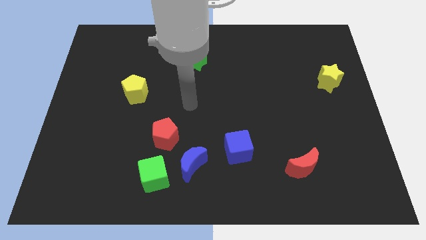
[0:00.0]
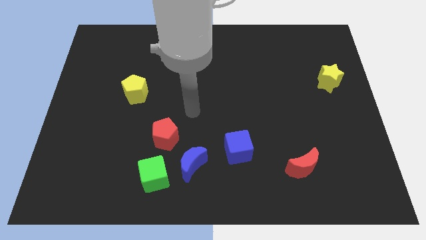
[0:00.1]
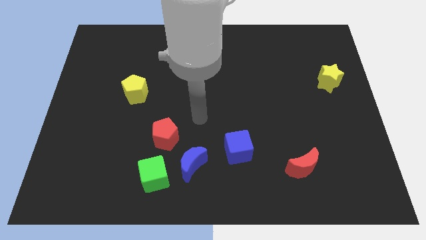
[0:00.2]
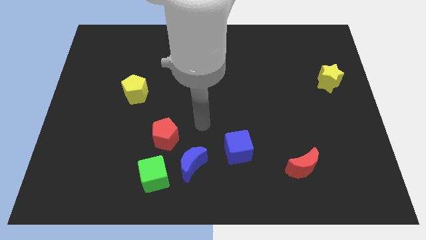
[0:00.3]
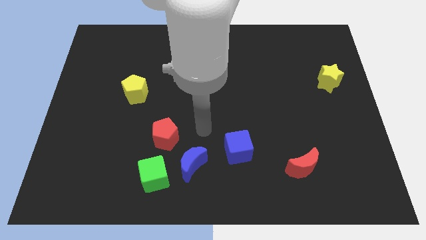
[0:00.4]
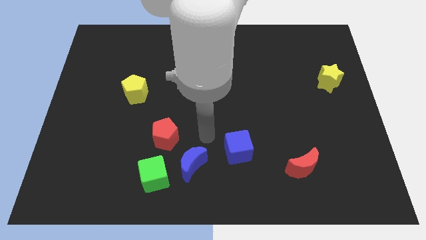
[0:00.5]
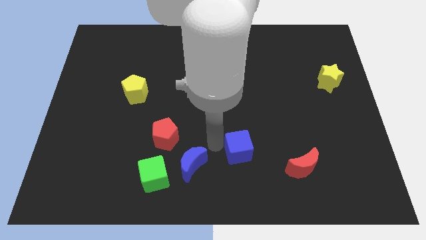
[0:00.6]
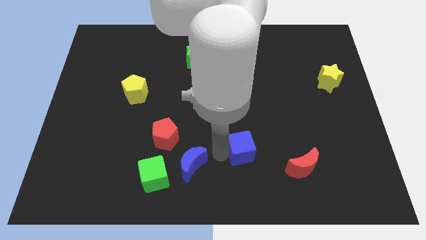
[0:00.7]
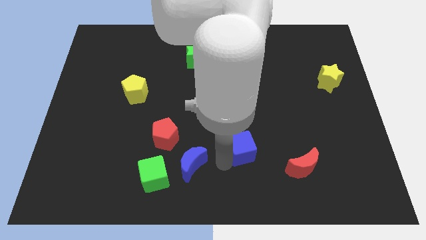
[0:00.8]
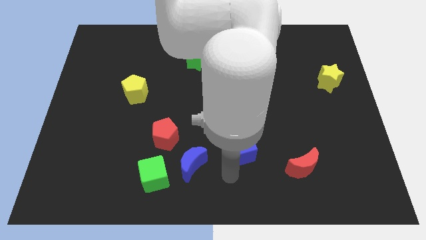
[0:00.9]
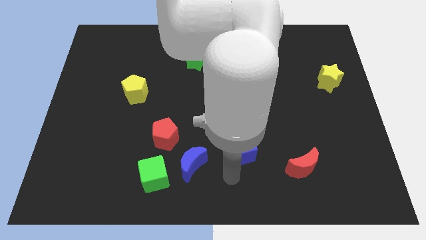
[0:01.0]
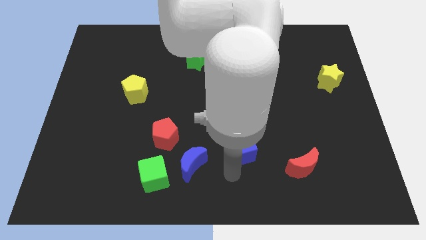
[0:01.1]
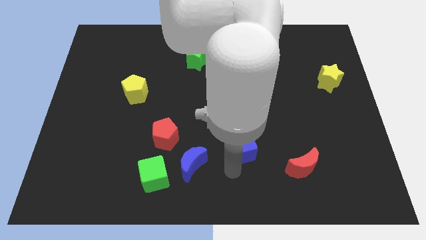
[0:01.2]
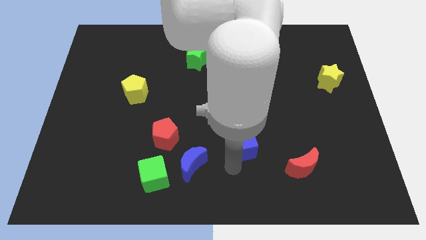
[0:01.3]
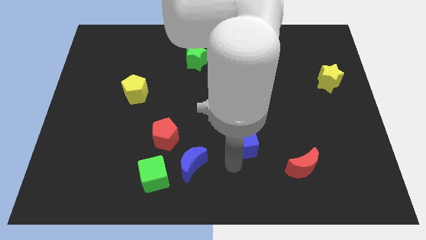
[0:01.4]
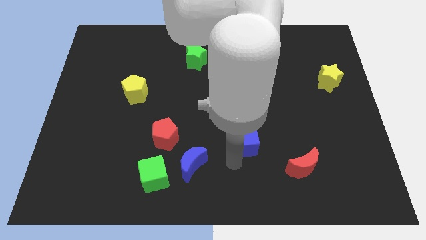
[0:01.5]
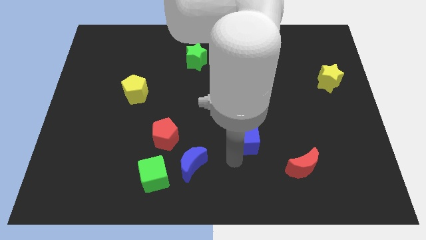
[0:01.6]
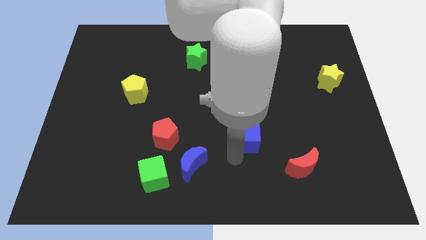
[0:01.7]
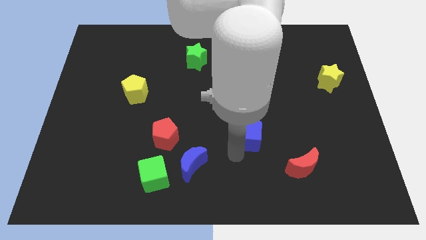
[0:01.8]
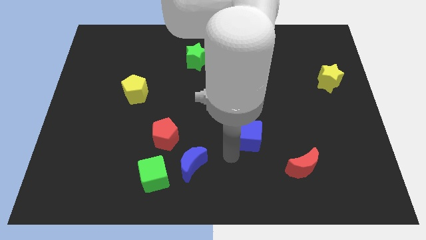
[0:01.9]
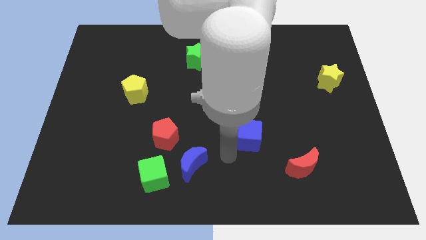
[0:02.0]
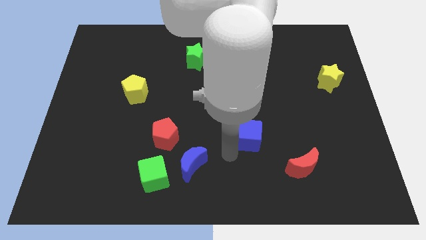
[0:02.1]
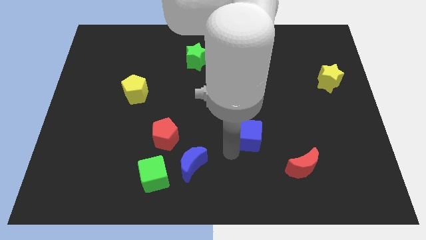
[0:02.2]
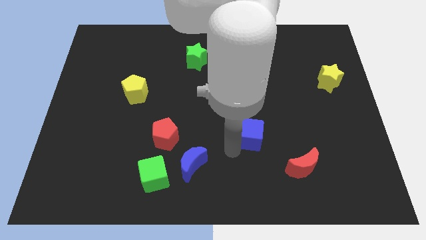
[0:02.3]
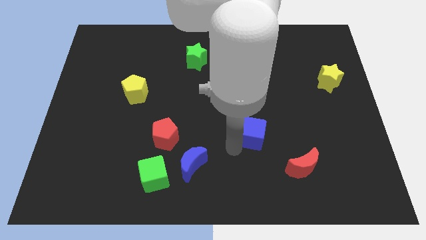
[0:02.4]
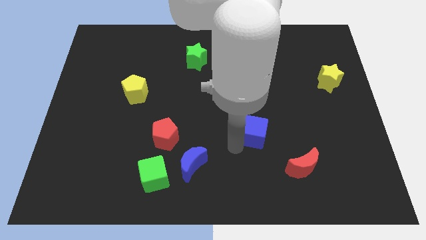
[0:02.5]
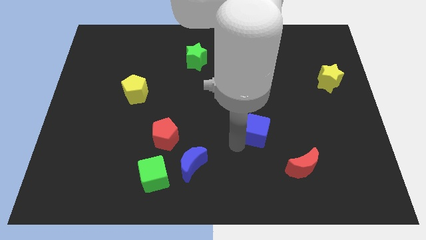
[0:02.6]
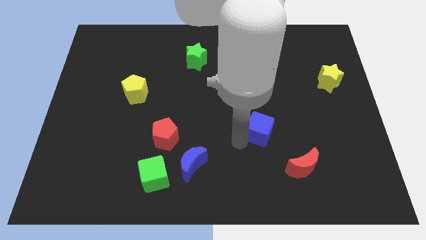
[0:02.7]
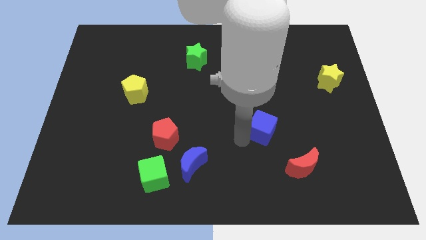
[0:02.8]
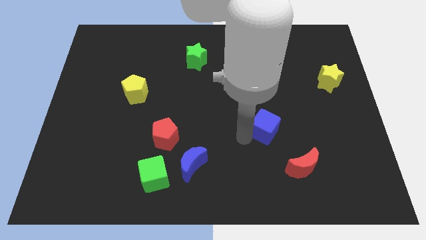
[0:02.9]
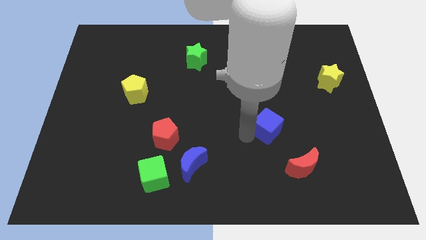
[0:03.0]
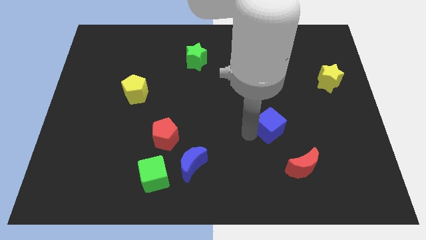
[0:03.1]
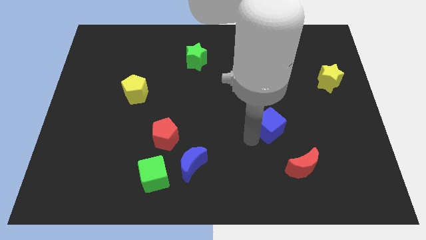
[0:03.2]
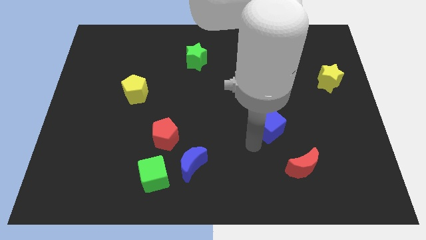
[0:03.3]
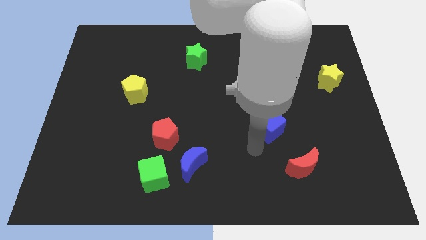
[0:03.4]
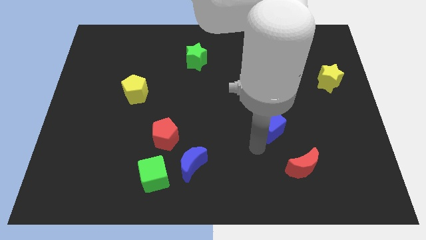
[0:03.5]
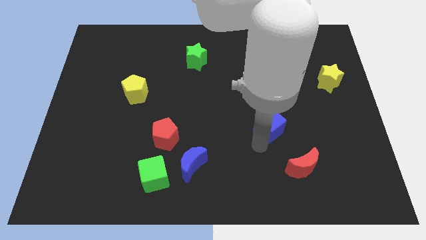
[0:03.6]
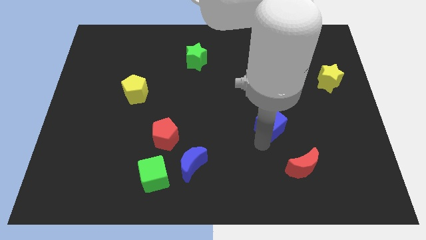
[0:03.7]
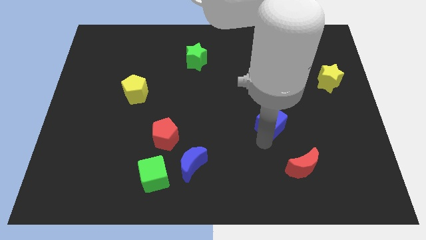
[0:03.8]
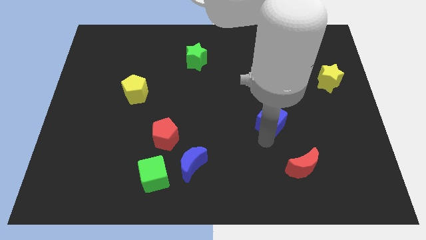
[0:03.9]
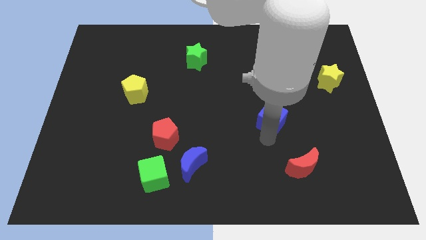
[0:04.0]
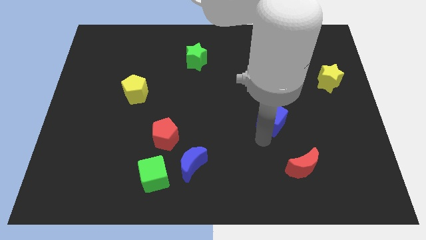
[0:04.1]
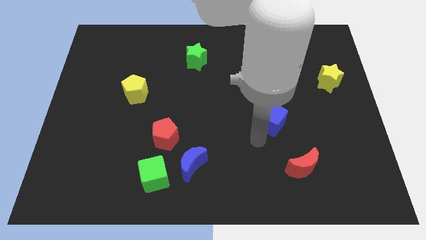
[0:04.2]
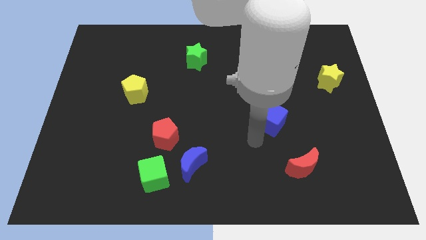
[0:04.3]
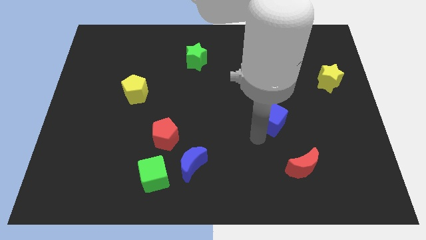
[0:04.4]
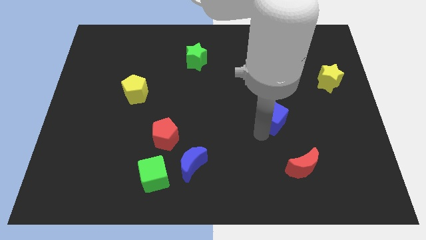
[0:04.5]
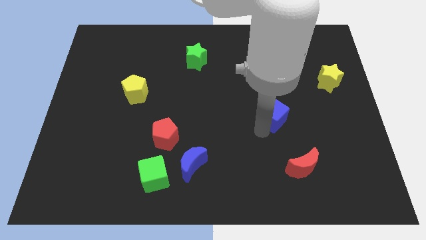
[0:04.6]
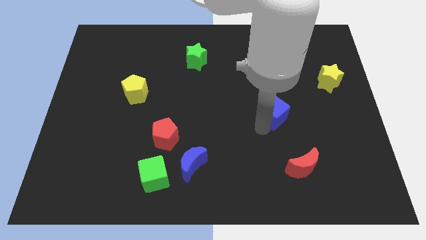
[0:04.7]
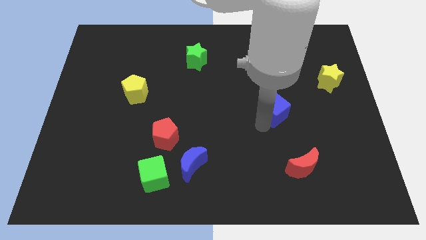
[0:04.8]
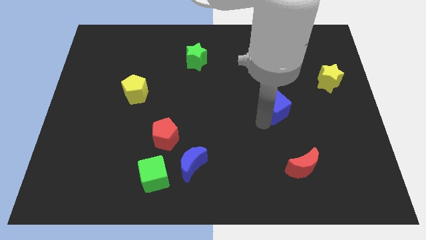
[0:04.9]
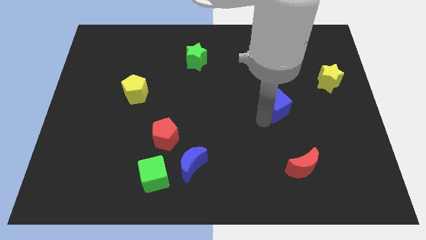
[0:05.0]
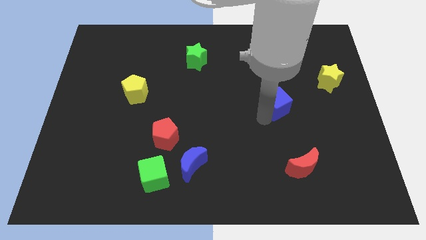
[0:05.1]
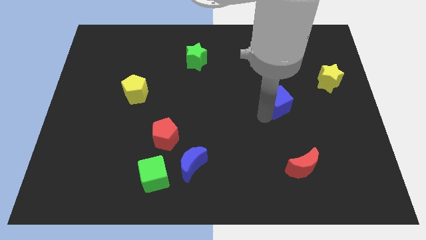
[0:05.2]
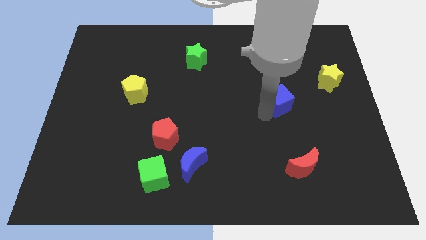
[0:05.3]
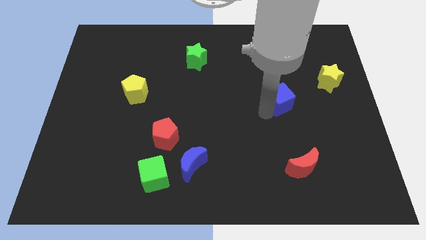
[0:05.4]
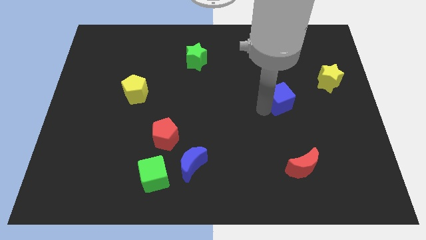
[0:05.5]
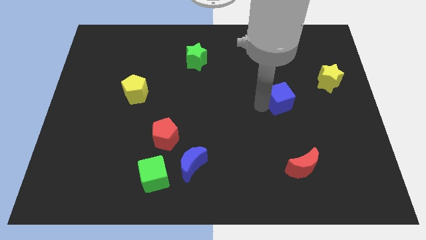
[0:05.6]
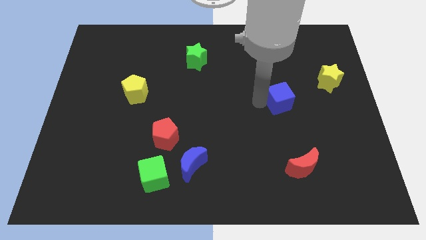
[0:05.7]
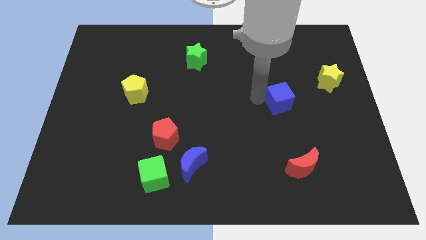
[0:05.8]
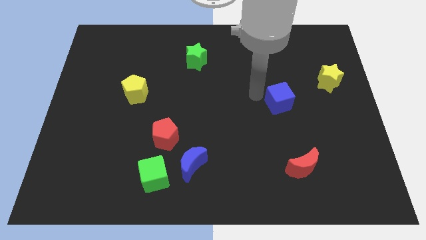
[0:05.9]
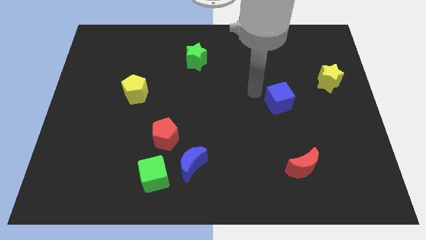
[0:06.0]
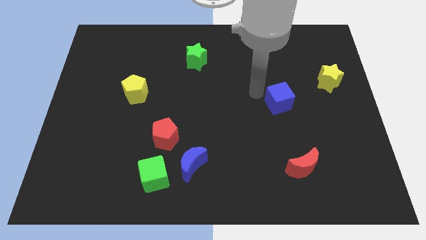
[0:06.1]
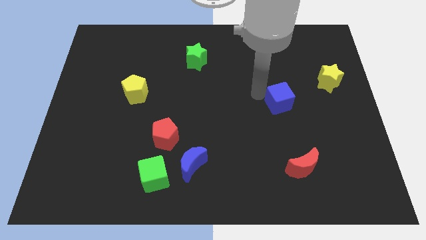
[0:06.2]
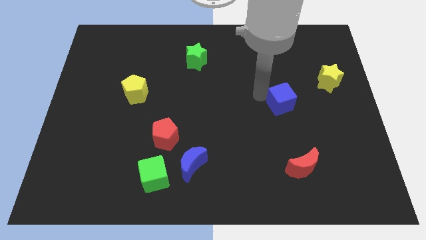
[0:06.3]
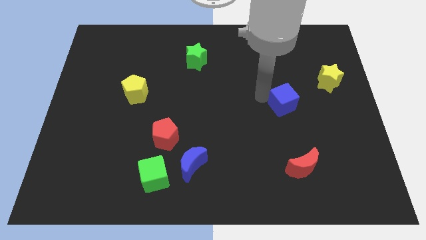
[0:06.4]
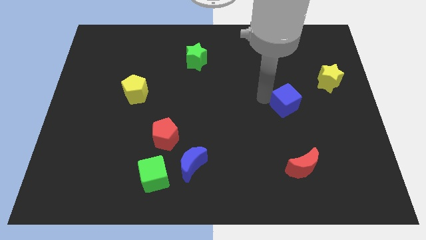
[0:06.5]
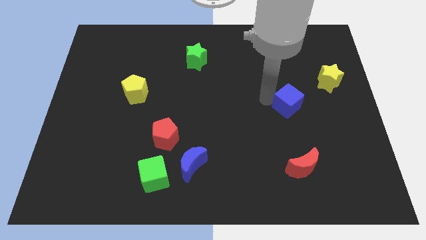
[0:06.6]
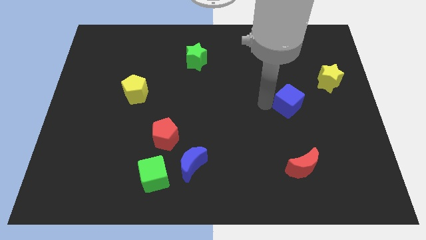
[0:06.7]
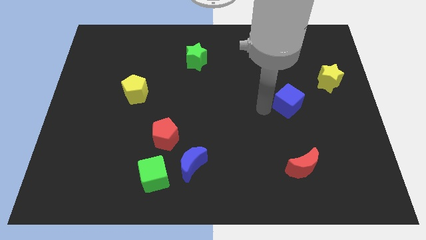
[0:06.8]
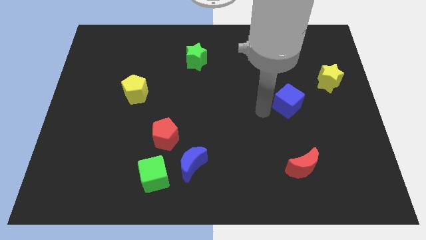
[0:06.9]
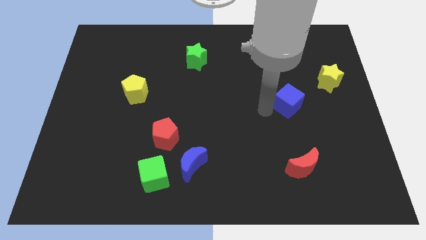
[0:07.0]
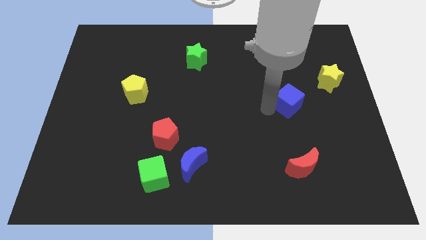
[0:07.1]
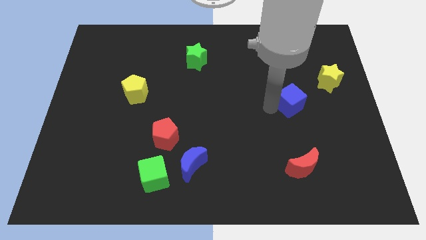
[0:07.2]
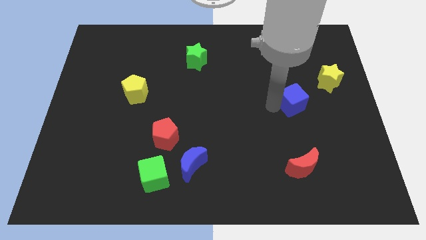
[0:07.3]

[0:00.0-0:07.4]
push the blue cube to the bottom left side of the yellow star
